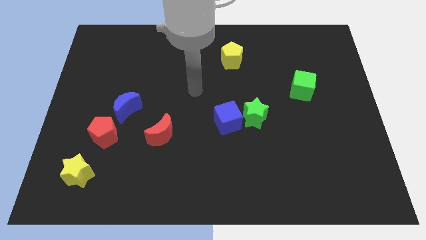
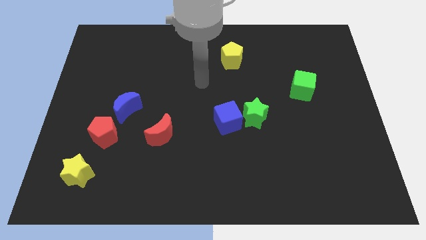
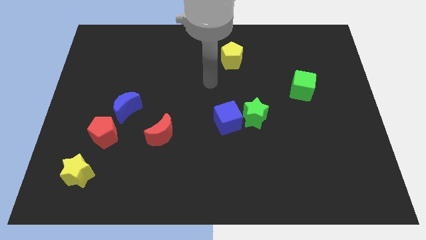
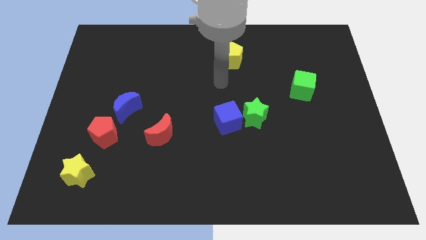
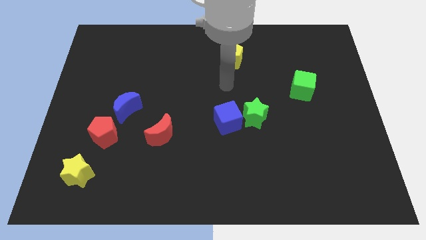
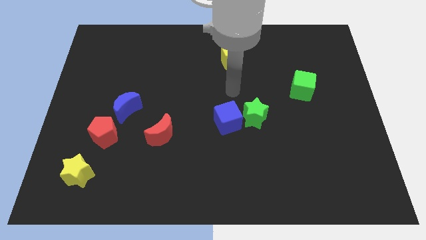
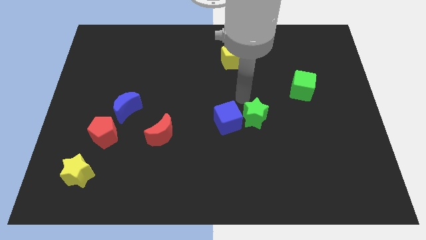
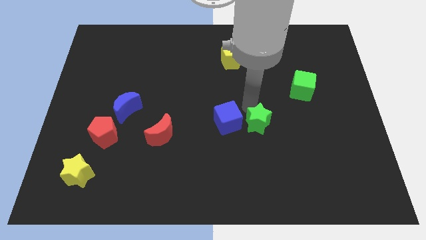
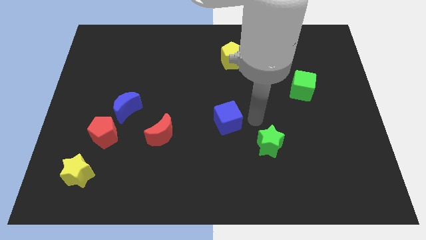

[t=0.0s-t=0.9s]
separate the blue cube from the green star

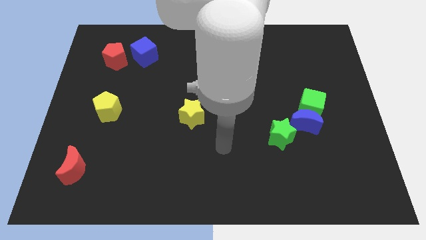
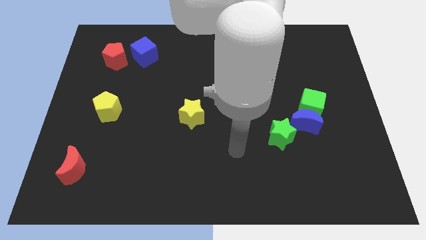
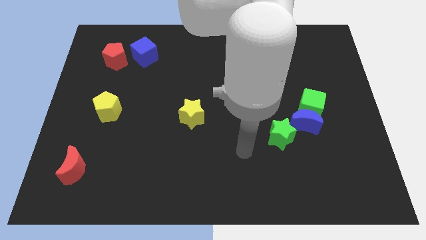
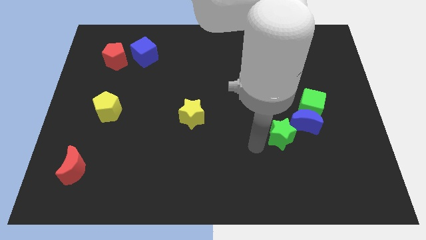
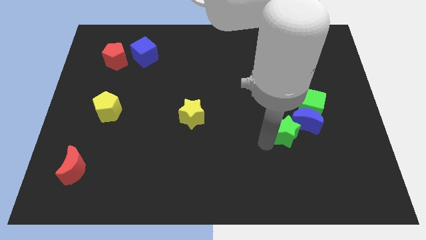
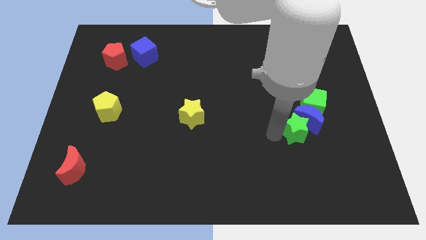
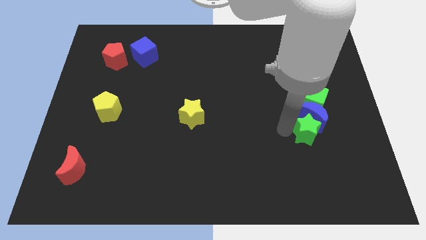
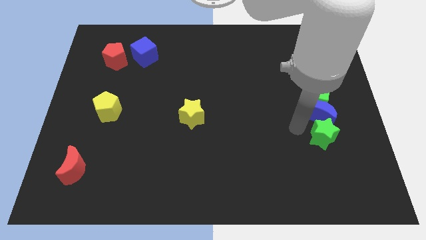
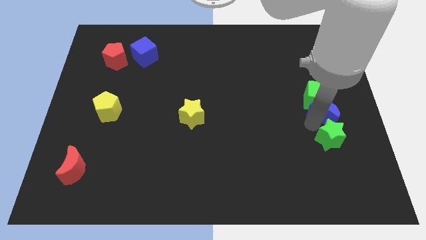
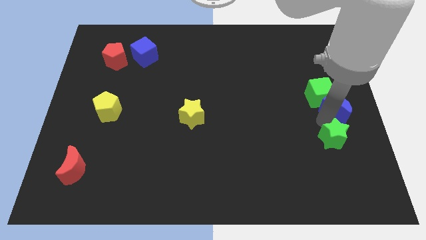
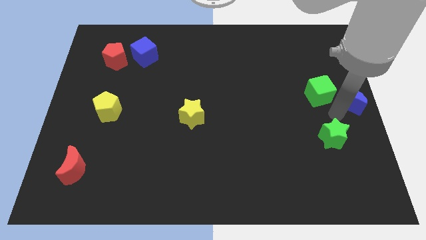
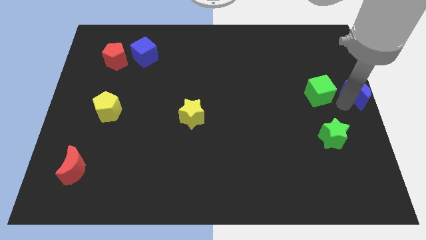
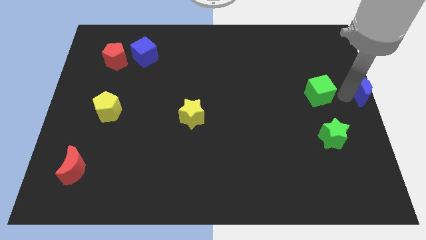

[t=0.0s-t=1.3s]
pull the green cube apart from the blue moon

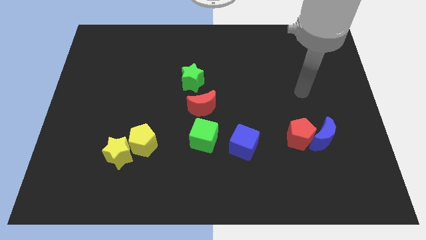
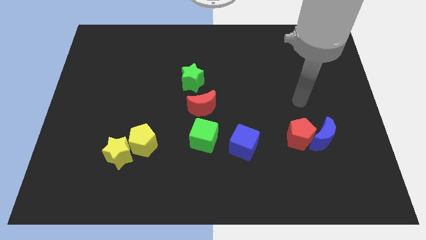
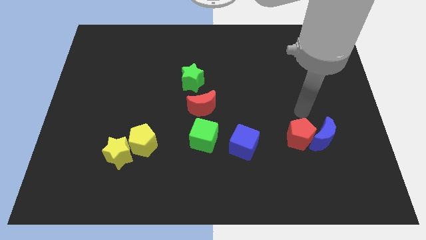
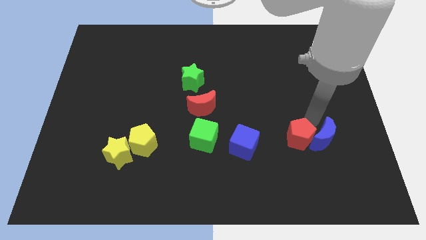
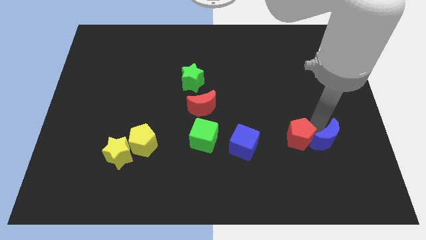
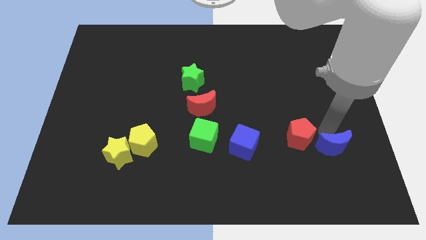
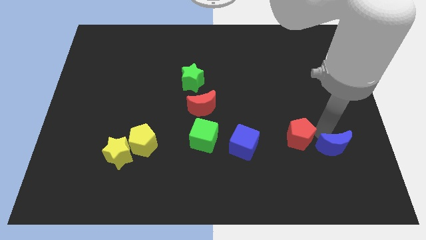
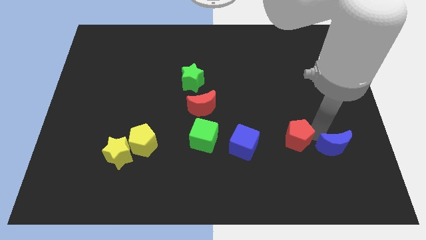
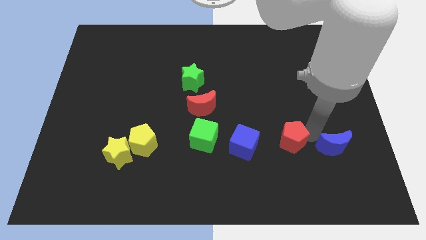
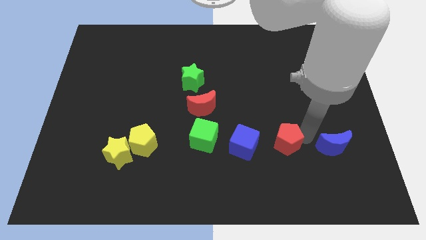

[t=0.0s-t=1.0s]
move the red pentagon away from the blue moon

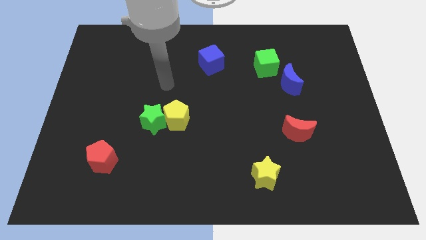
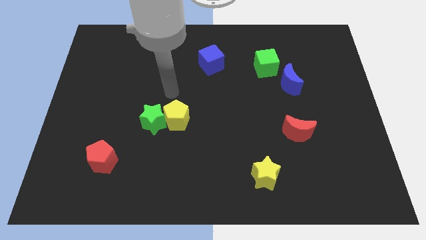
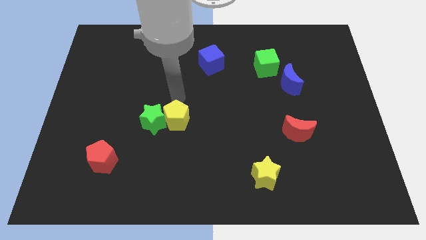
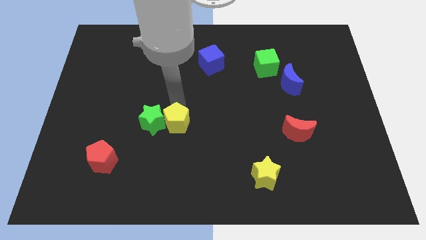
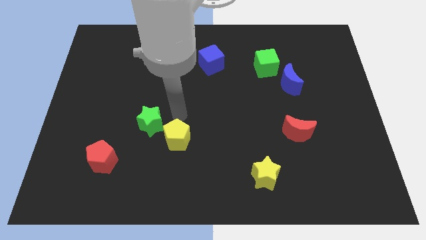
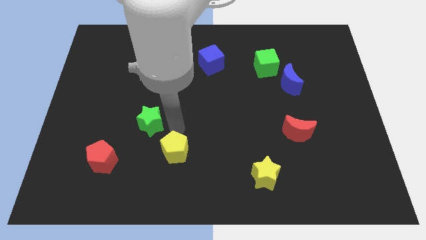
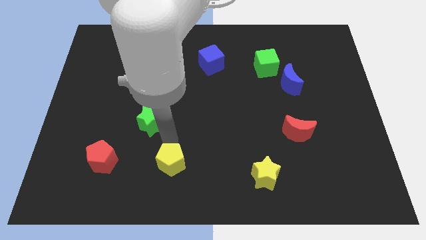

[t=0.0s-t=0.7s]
pull the green star apart from the yellow pentagon

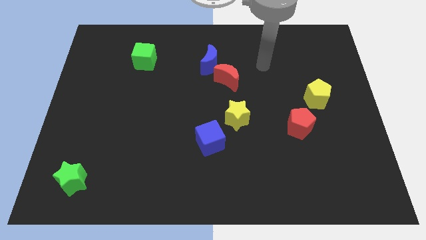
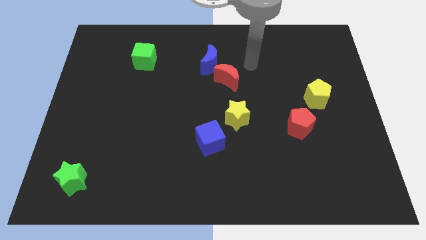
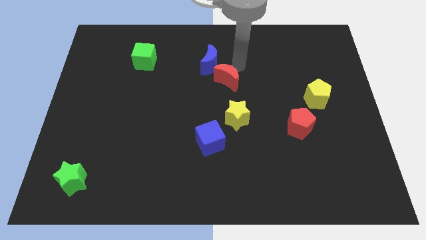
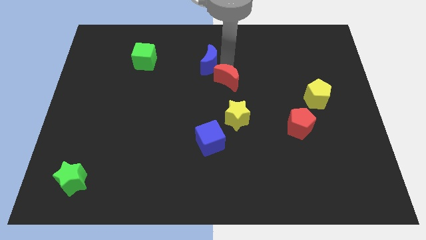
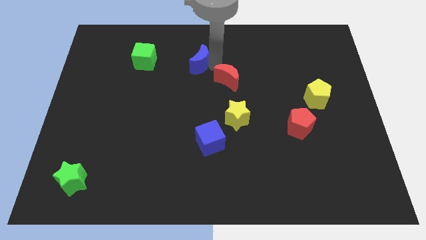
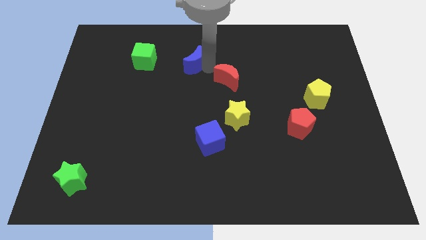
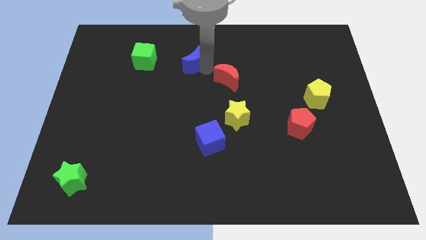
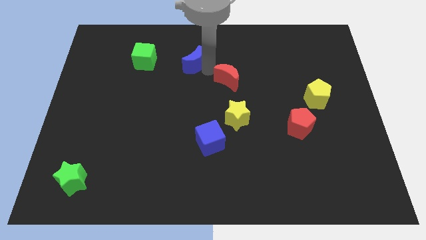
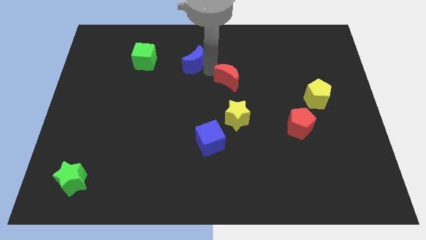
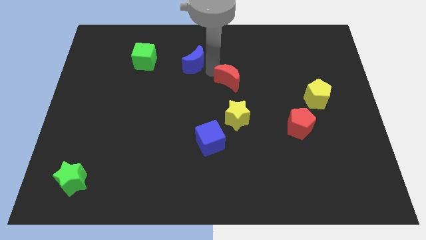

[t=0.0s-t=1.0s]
pull the red moon apart from the blue moon

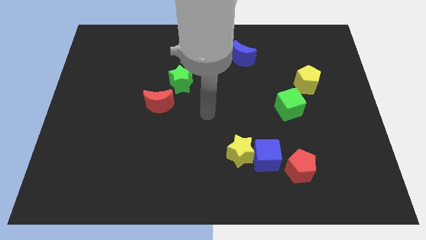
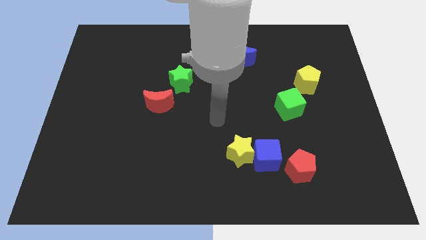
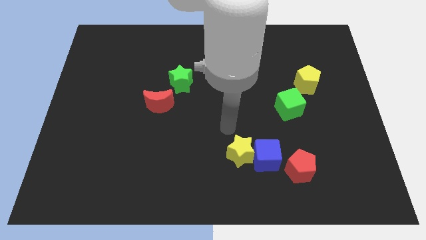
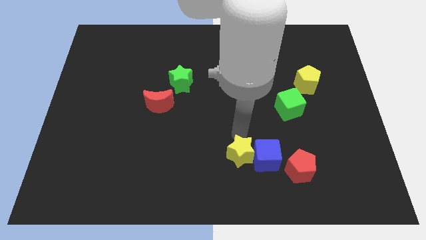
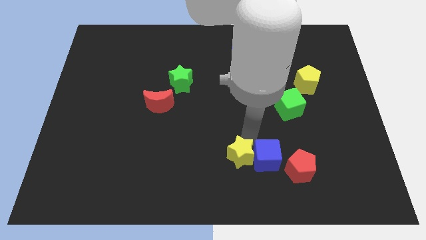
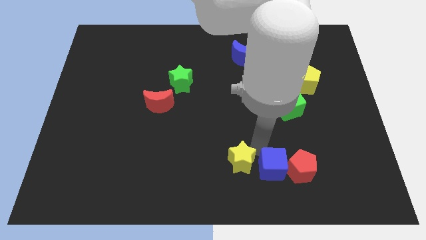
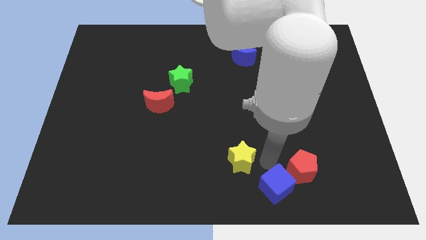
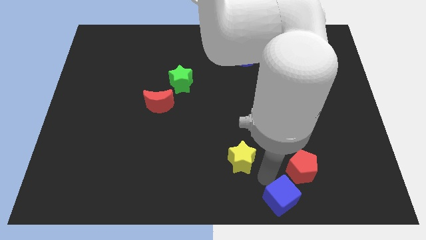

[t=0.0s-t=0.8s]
move the yellow star away from the blue cube

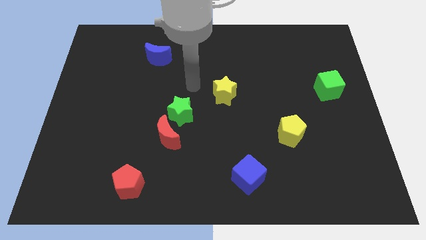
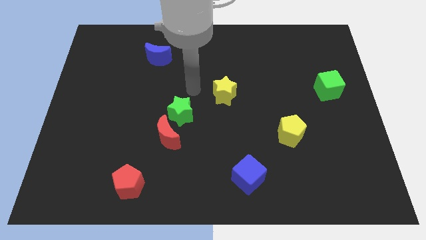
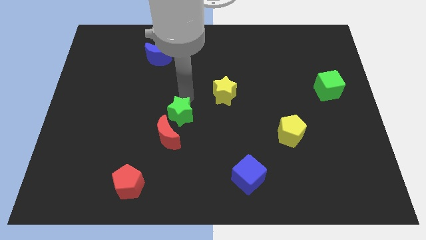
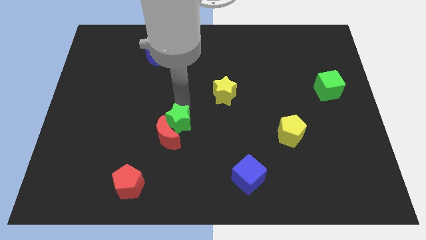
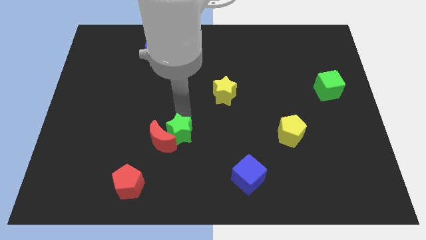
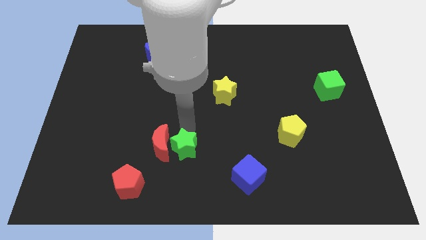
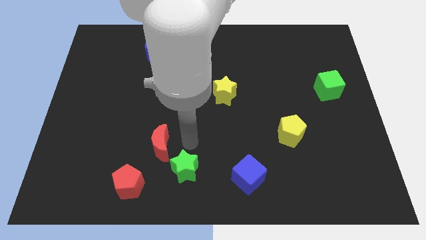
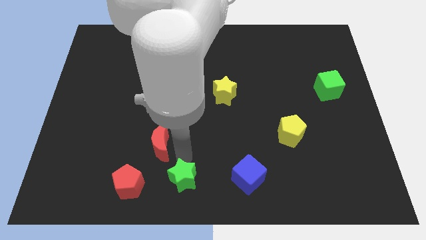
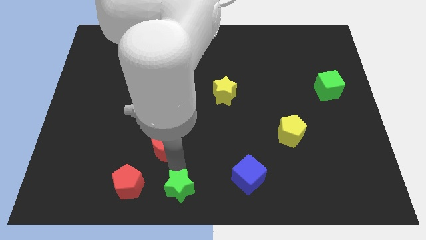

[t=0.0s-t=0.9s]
separate the red moon from the green star

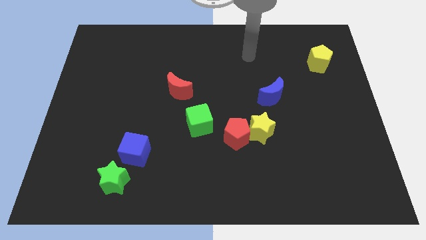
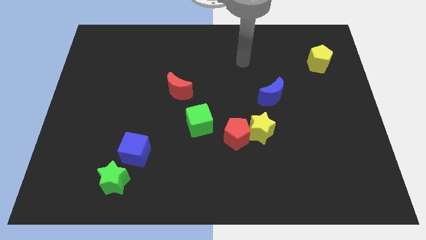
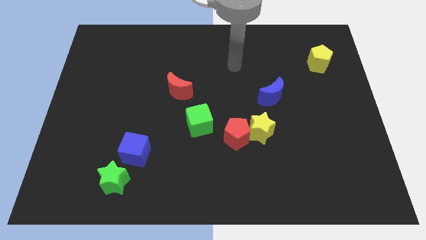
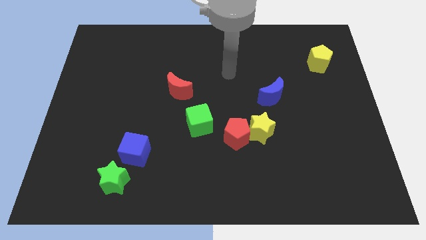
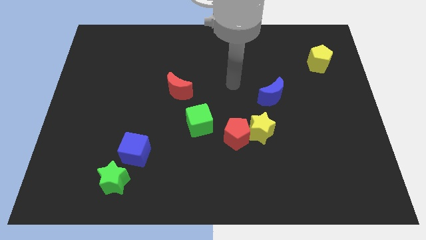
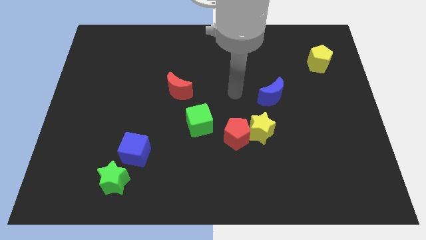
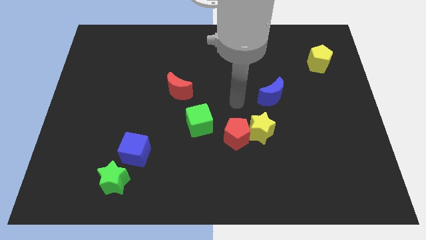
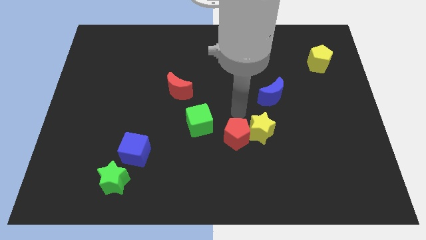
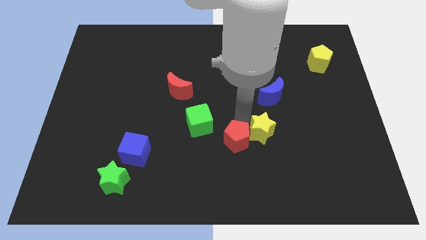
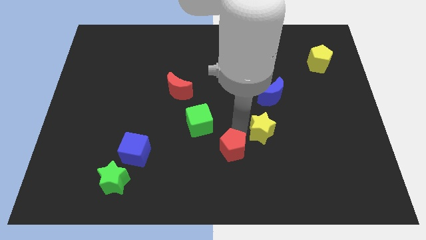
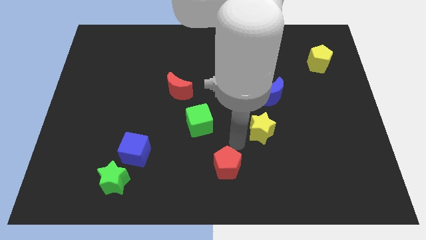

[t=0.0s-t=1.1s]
pull the yellow star apart from the red pentagon

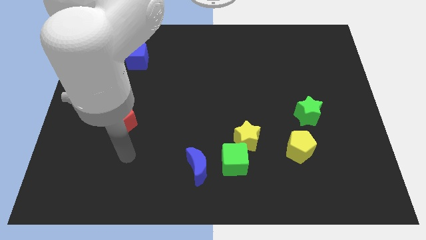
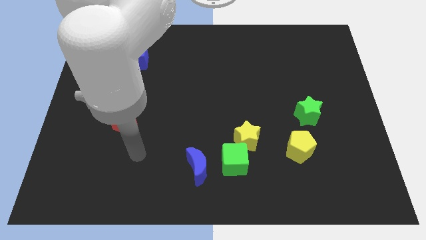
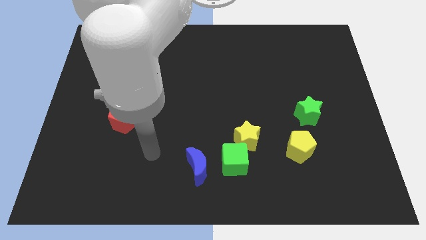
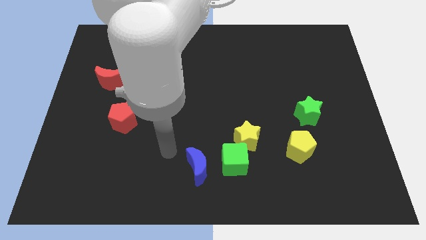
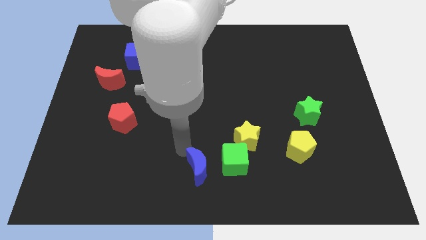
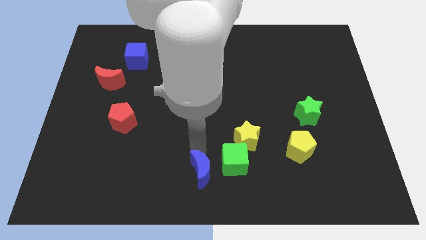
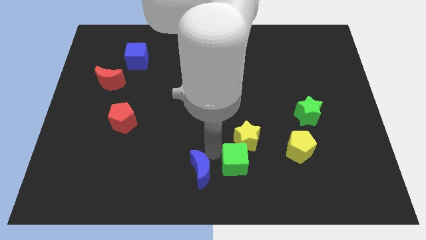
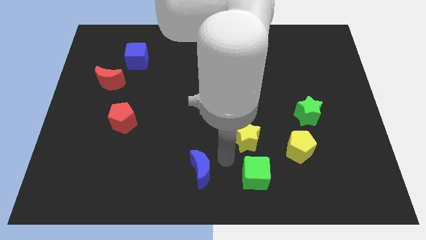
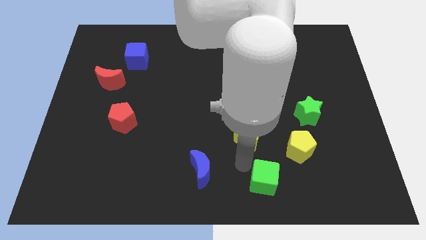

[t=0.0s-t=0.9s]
pull the yellow star apart from the green cube

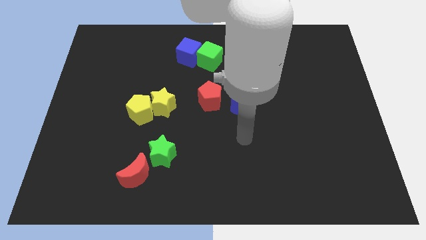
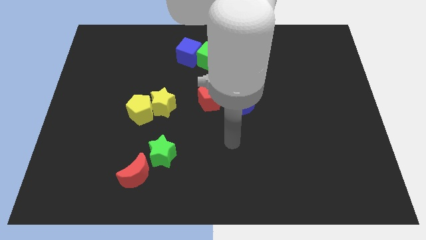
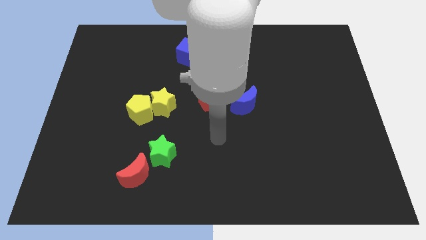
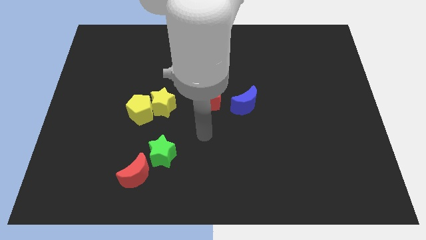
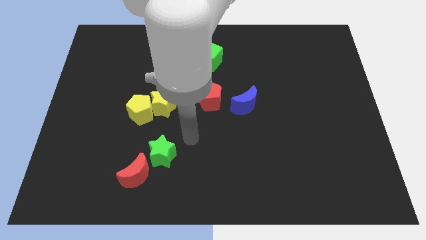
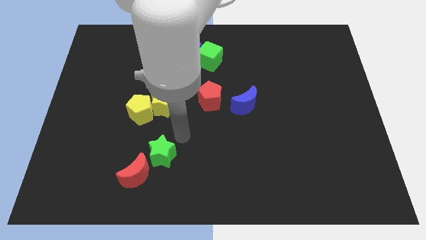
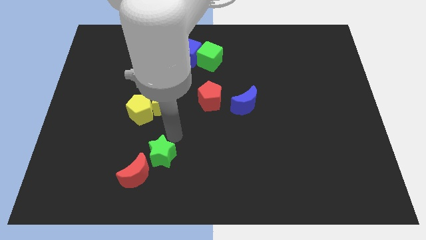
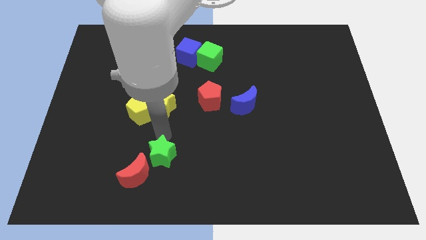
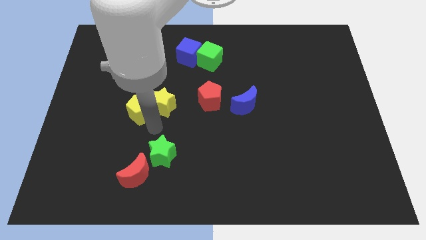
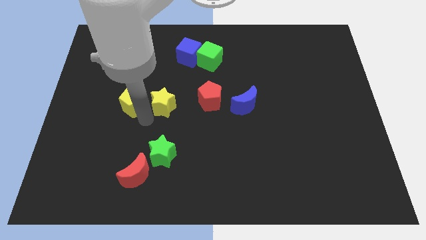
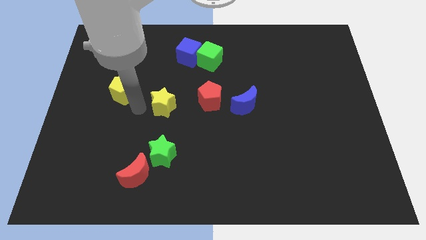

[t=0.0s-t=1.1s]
separate the yellow star from the yellow pentagon
